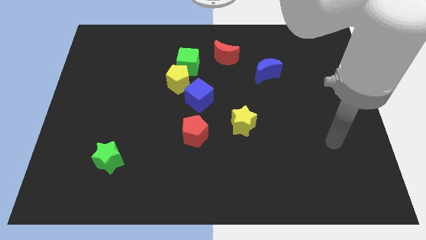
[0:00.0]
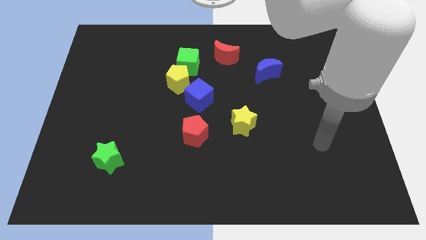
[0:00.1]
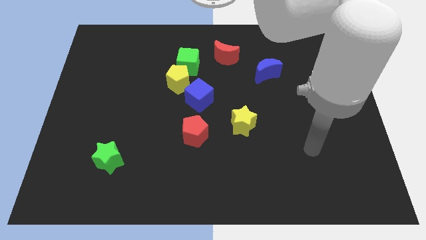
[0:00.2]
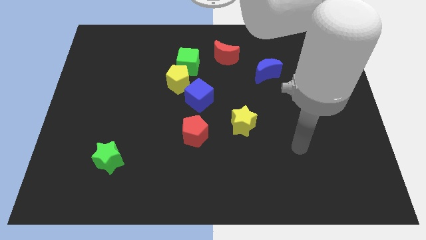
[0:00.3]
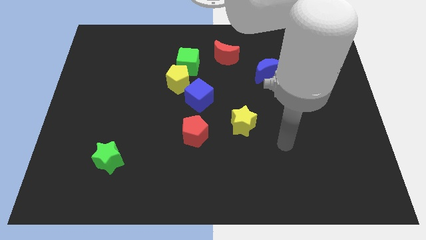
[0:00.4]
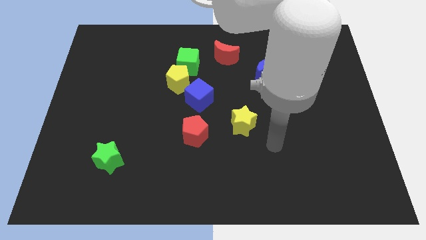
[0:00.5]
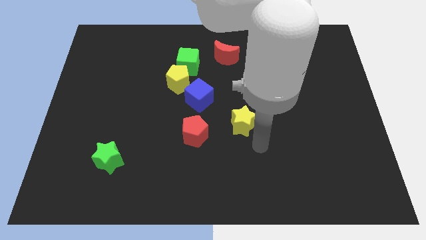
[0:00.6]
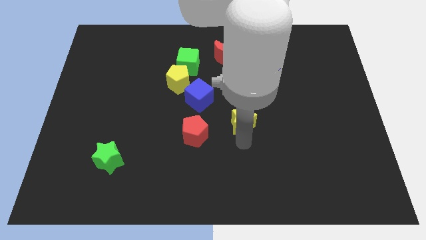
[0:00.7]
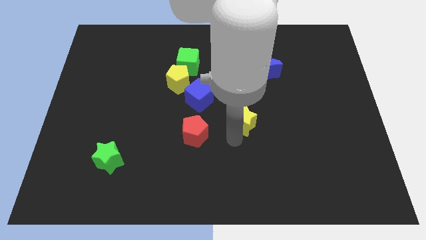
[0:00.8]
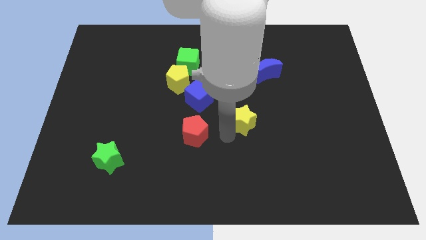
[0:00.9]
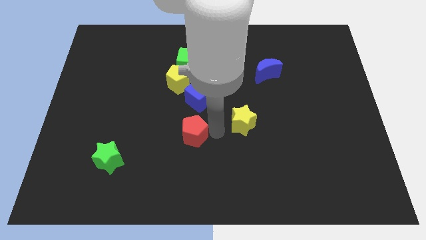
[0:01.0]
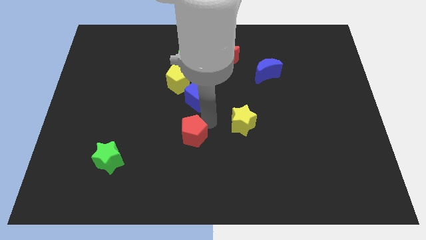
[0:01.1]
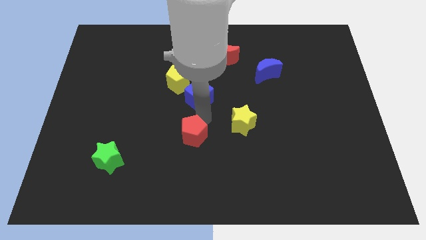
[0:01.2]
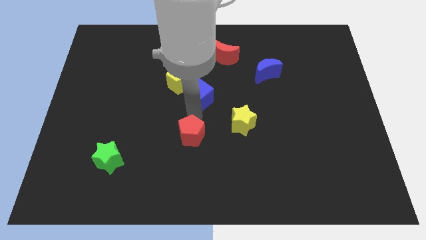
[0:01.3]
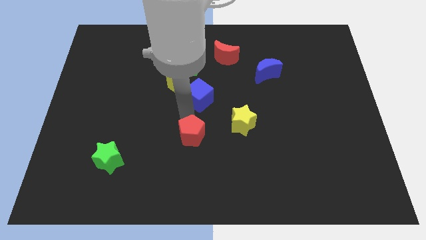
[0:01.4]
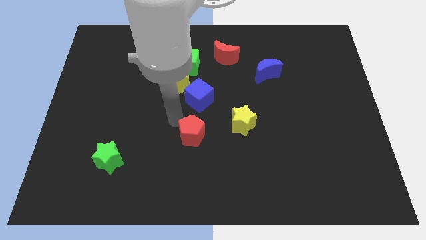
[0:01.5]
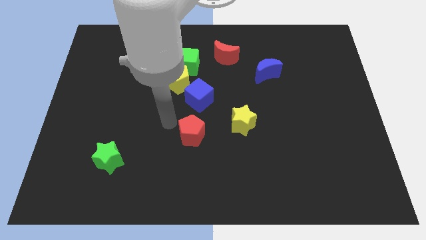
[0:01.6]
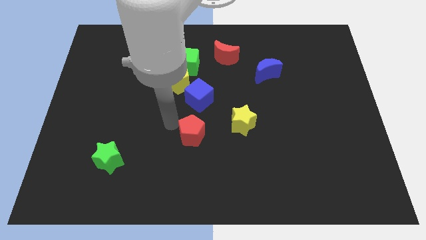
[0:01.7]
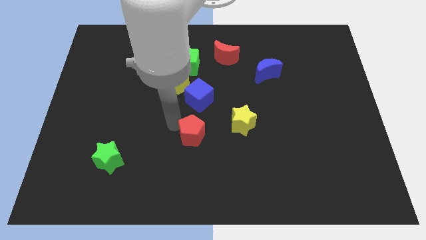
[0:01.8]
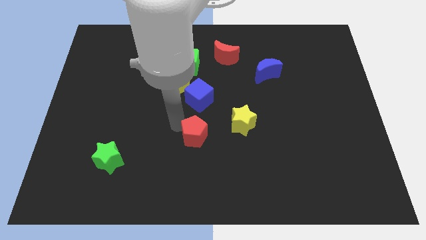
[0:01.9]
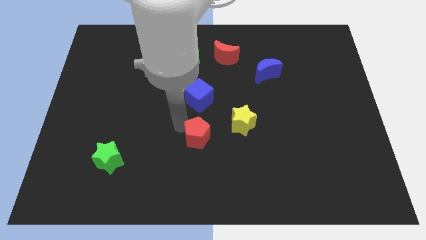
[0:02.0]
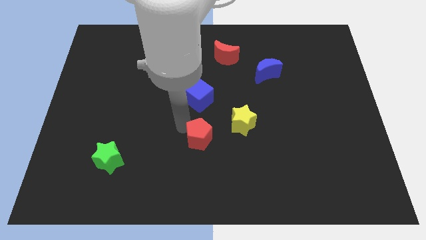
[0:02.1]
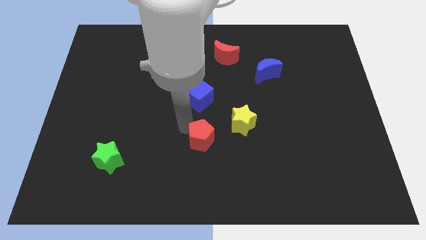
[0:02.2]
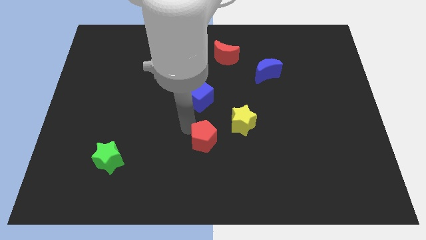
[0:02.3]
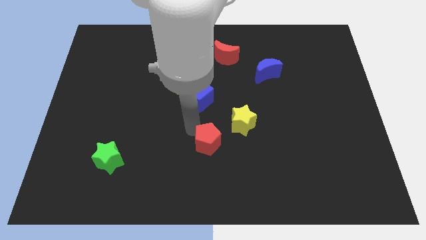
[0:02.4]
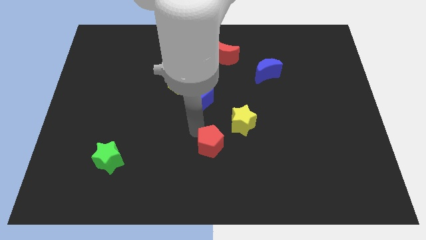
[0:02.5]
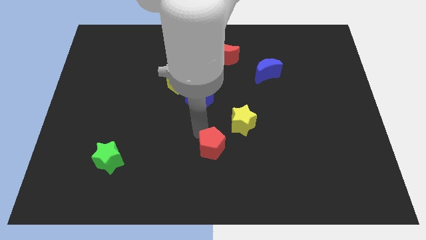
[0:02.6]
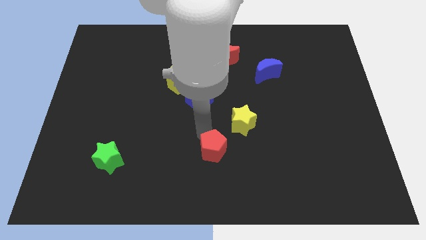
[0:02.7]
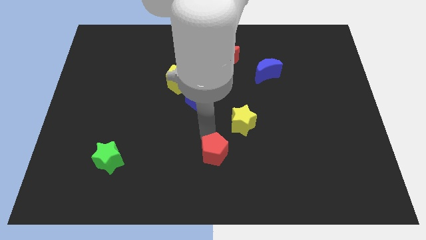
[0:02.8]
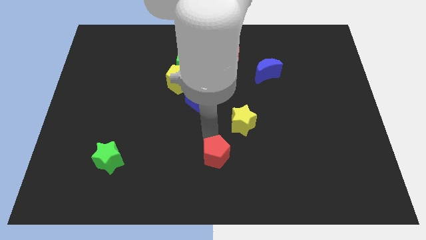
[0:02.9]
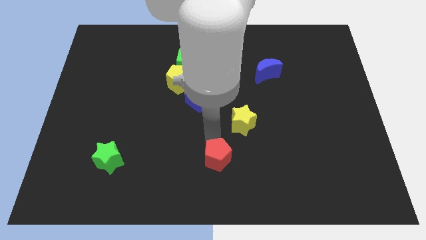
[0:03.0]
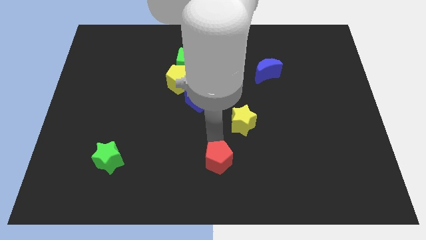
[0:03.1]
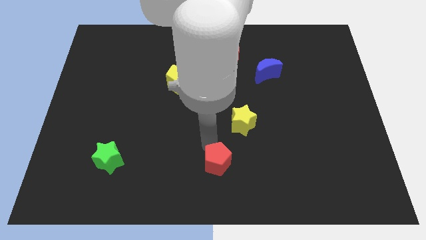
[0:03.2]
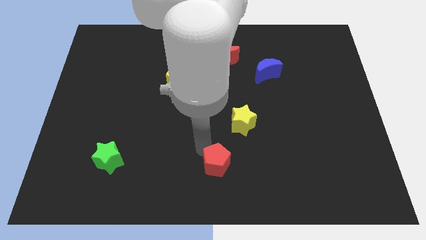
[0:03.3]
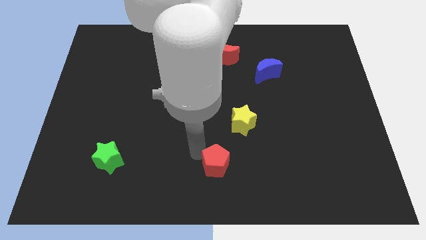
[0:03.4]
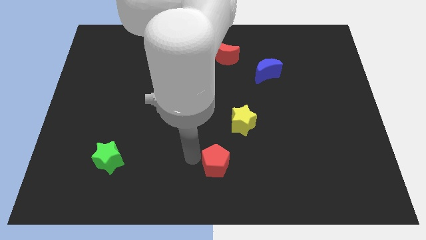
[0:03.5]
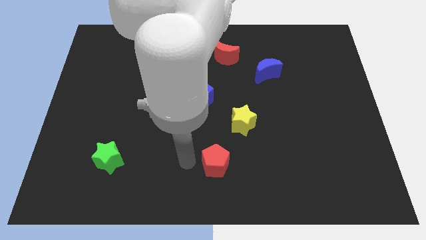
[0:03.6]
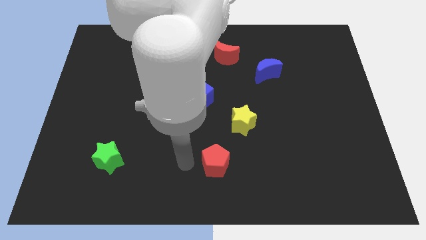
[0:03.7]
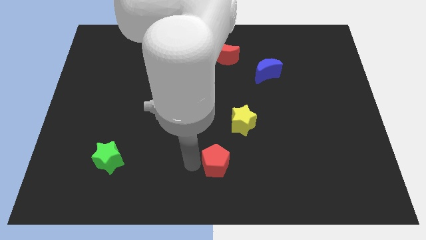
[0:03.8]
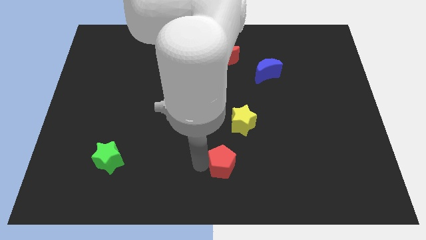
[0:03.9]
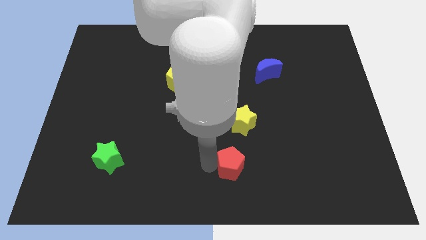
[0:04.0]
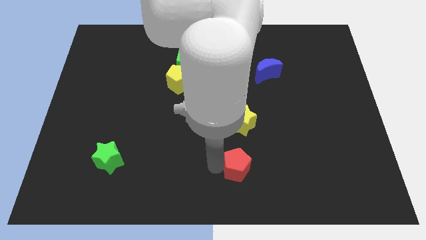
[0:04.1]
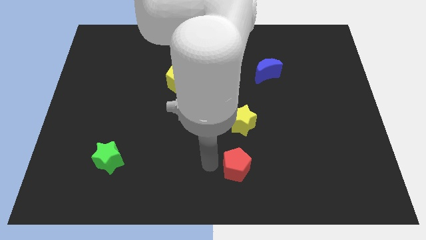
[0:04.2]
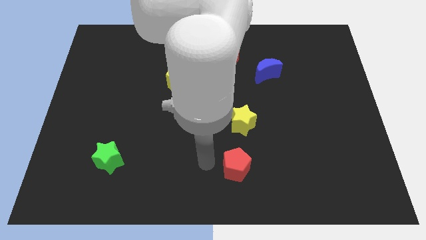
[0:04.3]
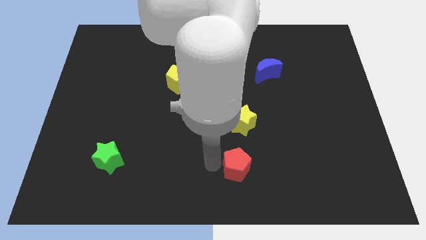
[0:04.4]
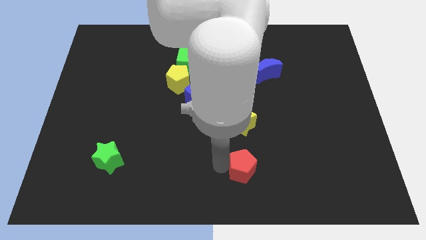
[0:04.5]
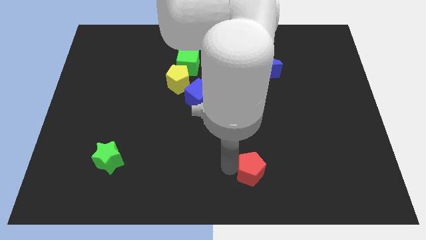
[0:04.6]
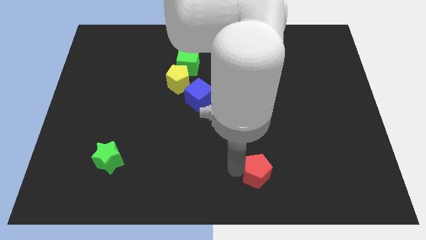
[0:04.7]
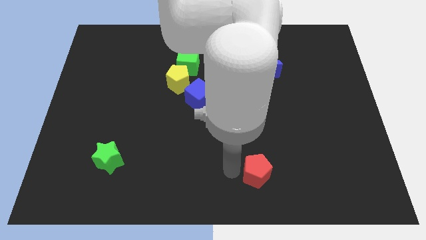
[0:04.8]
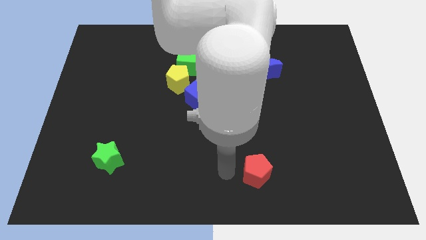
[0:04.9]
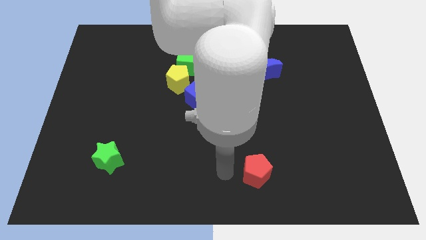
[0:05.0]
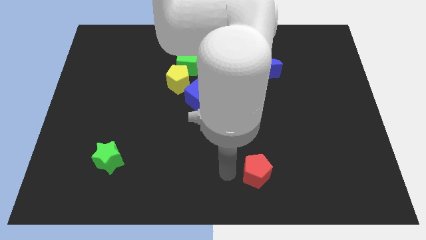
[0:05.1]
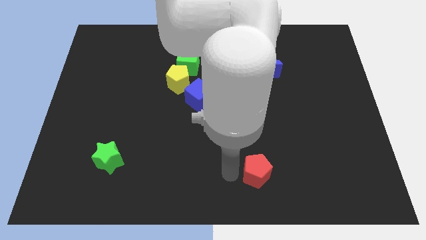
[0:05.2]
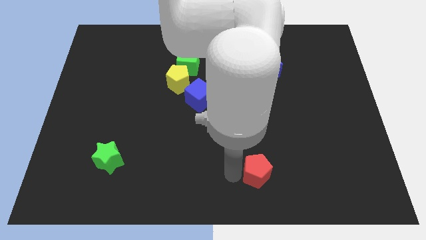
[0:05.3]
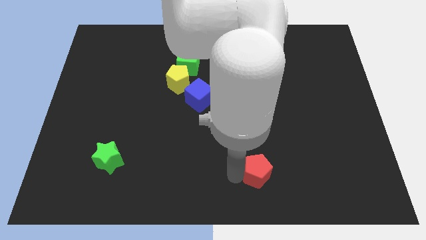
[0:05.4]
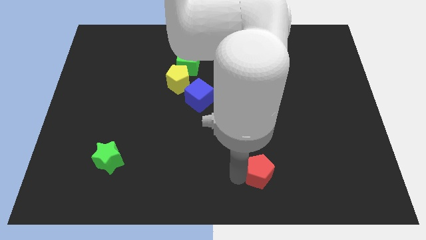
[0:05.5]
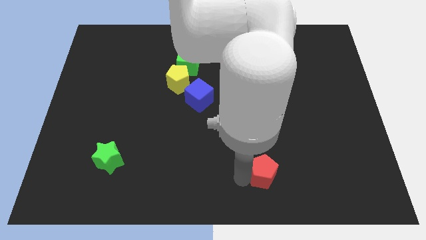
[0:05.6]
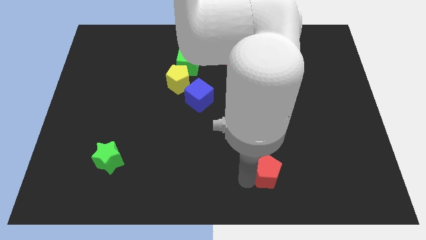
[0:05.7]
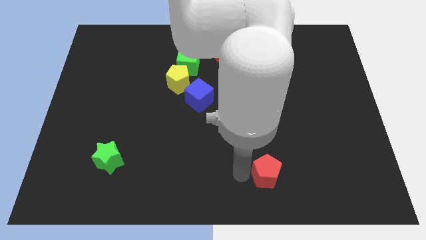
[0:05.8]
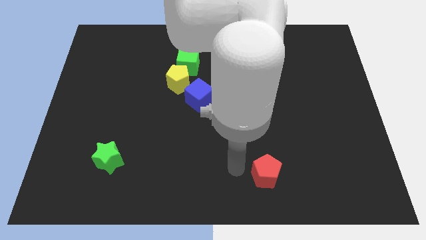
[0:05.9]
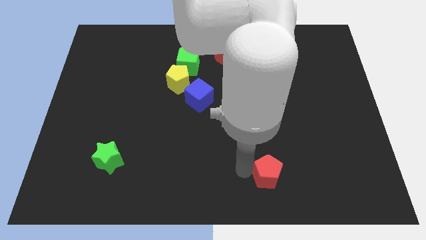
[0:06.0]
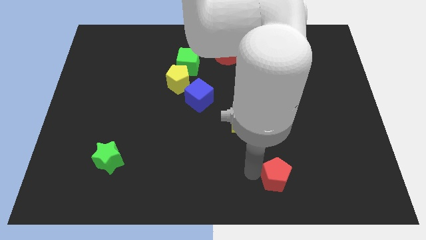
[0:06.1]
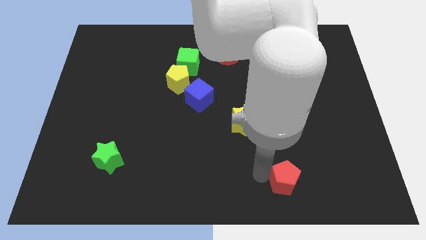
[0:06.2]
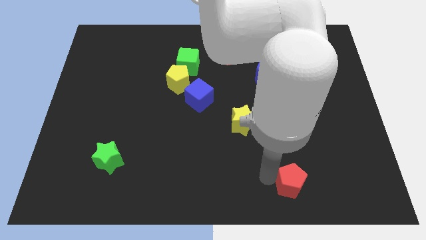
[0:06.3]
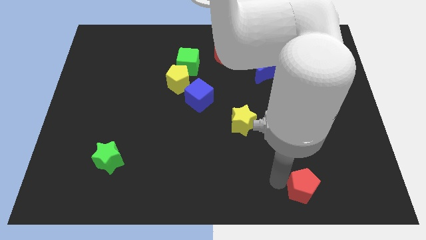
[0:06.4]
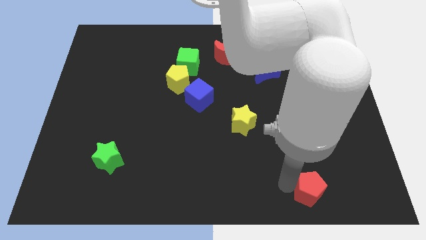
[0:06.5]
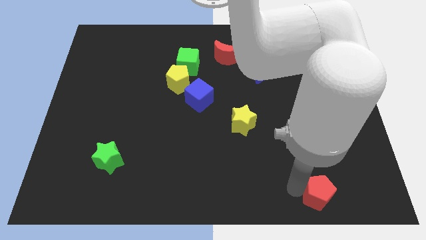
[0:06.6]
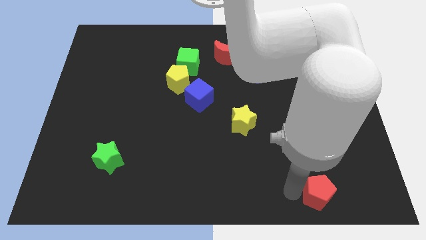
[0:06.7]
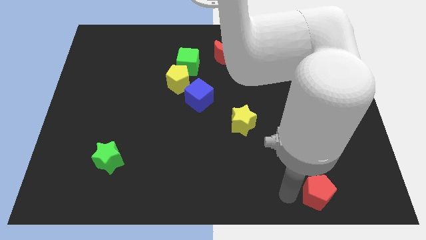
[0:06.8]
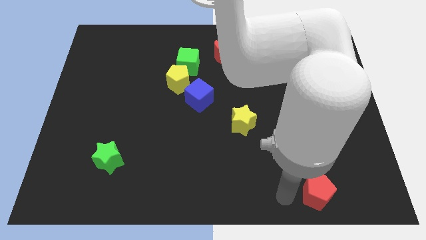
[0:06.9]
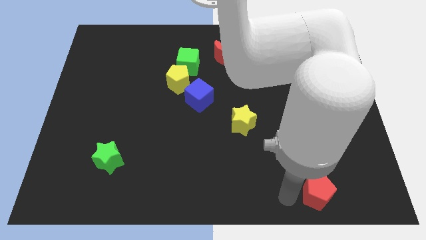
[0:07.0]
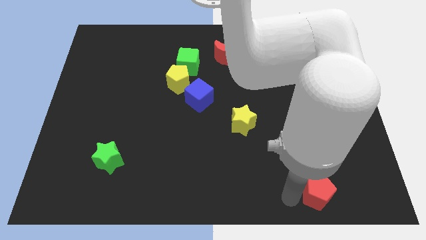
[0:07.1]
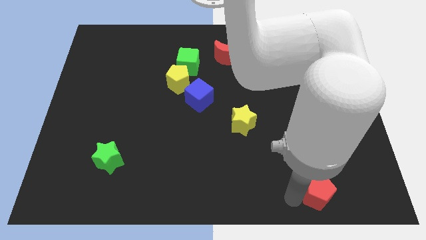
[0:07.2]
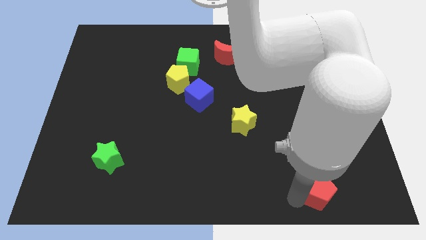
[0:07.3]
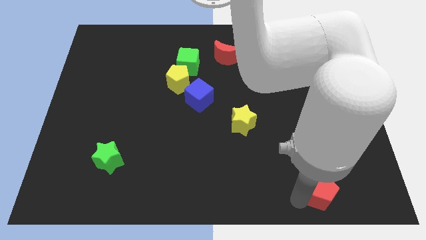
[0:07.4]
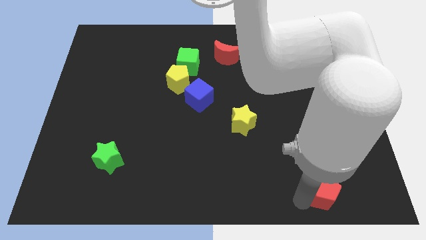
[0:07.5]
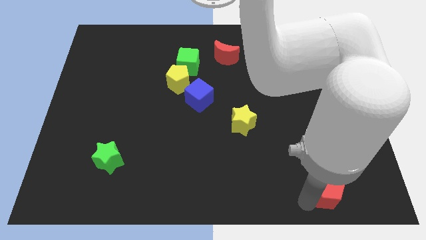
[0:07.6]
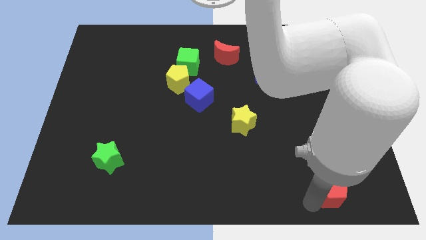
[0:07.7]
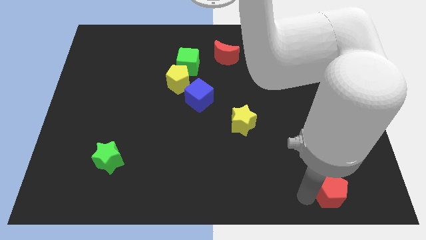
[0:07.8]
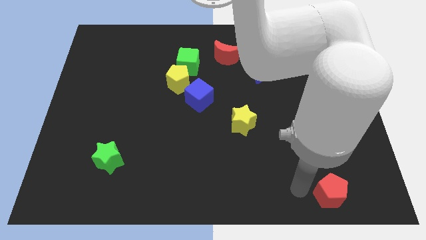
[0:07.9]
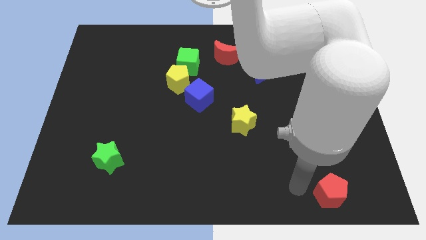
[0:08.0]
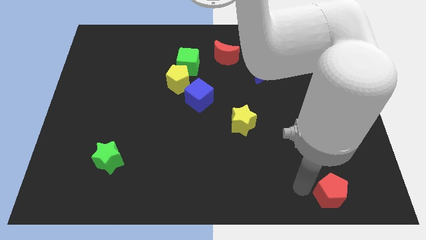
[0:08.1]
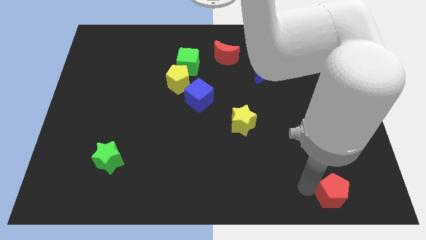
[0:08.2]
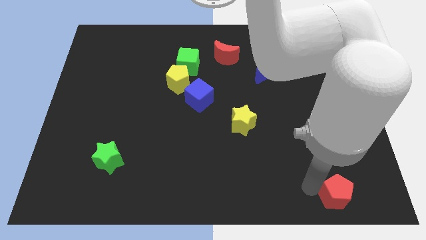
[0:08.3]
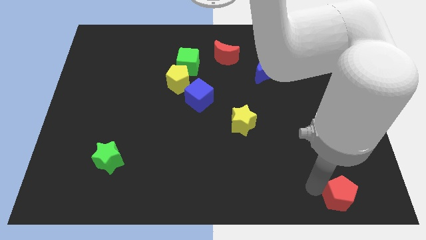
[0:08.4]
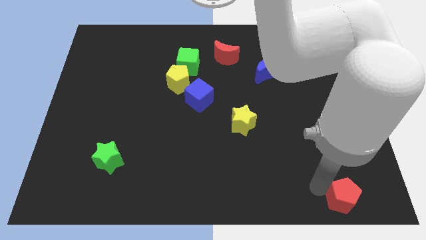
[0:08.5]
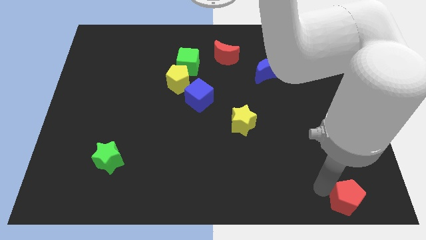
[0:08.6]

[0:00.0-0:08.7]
slide the red pentagon to the lower right corner
